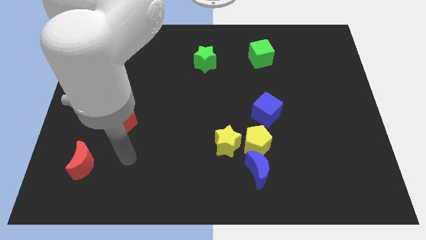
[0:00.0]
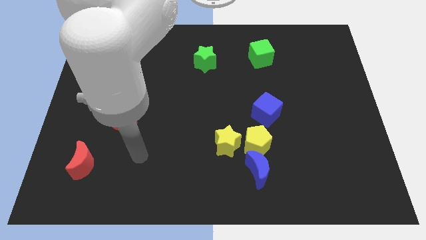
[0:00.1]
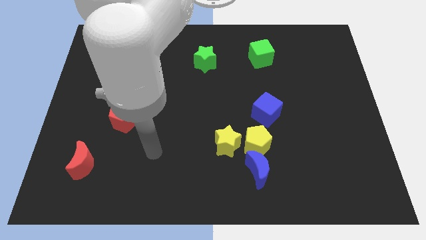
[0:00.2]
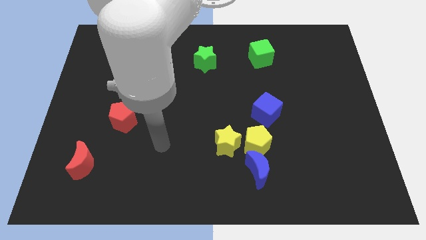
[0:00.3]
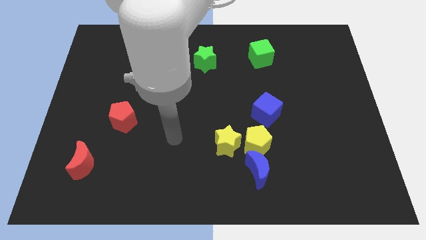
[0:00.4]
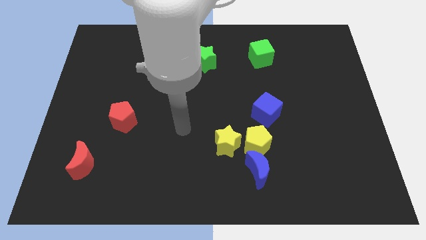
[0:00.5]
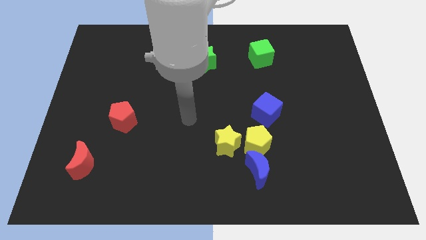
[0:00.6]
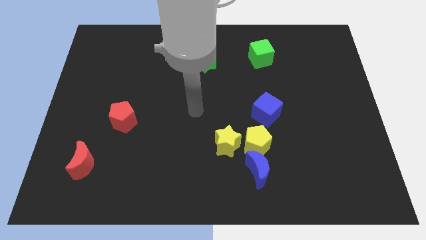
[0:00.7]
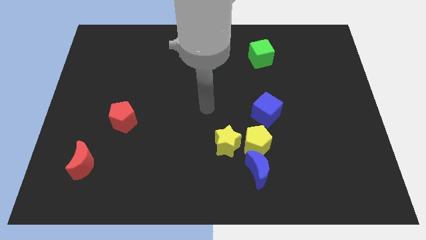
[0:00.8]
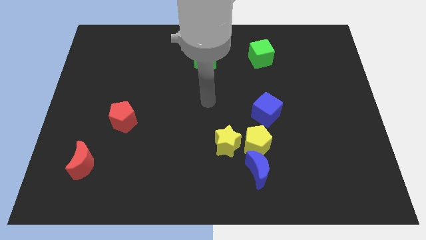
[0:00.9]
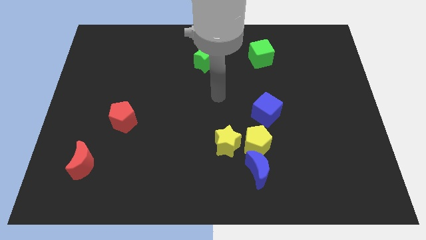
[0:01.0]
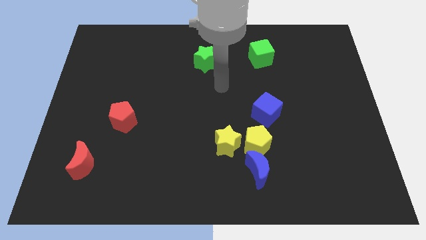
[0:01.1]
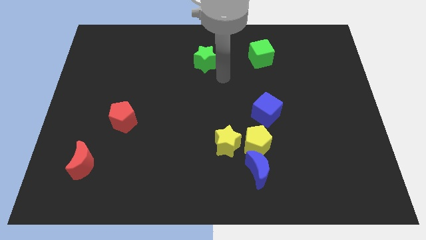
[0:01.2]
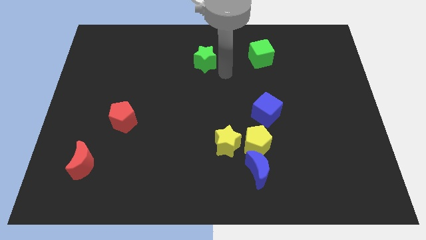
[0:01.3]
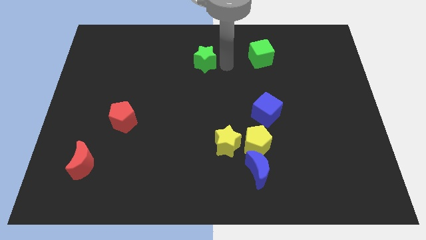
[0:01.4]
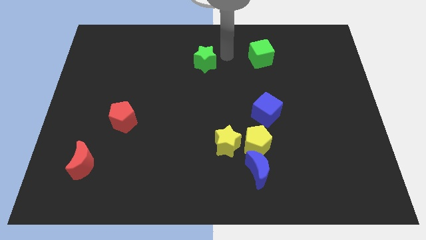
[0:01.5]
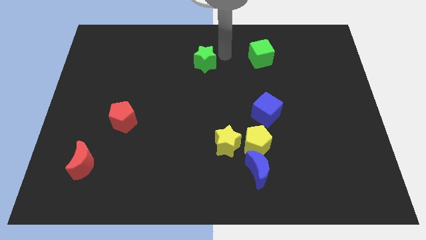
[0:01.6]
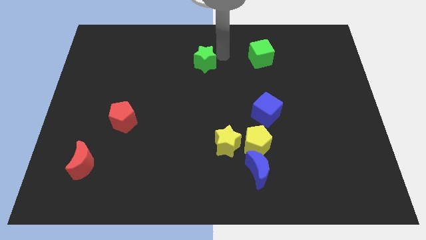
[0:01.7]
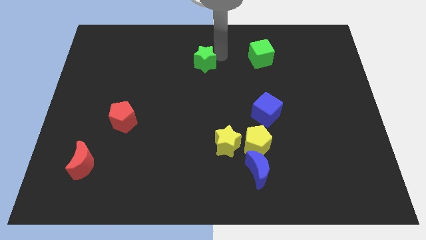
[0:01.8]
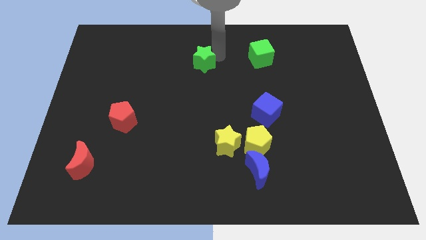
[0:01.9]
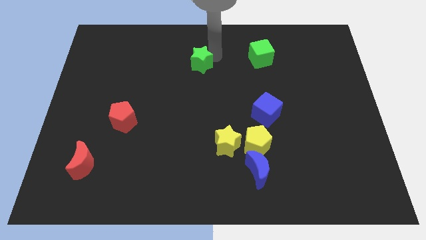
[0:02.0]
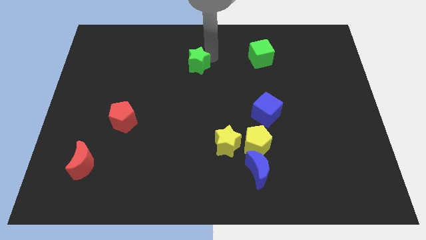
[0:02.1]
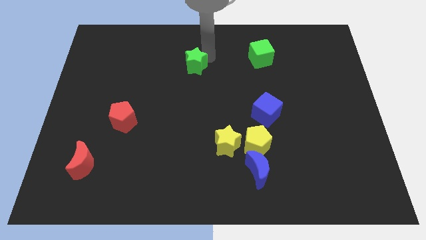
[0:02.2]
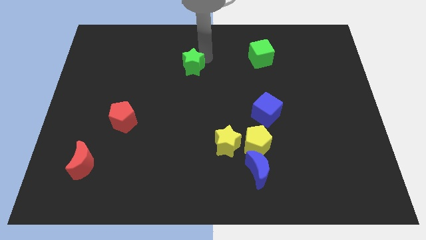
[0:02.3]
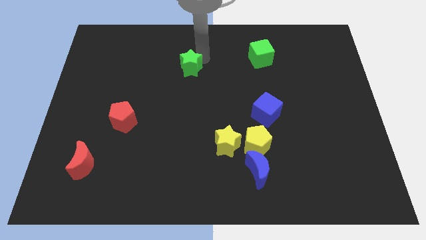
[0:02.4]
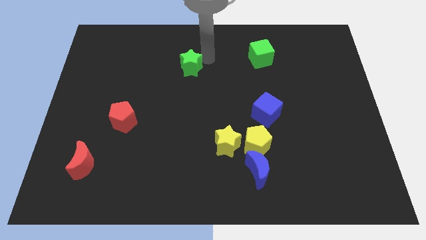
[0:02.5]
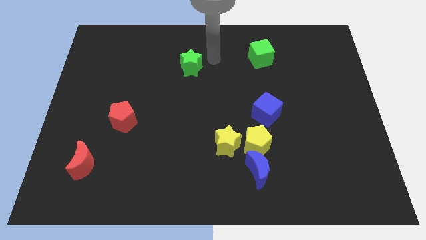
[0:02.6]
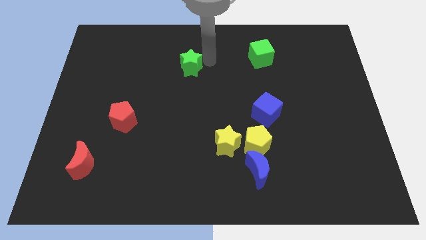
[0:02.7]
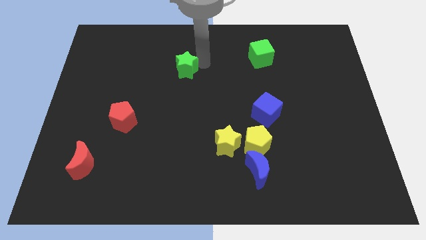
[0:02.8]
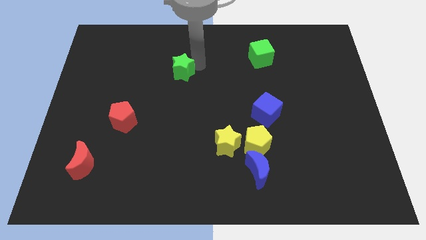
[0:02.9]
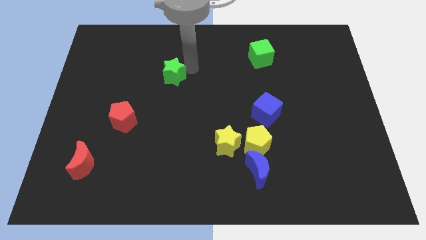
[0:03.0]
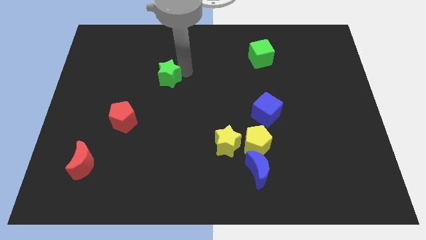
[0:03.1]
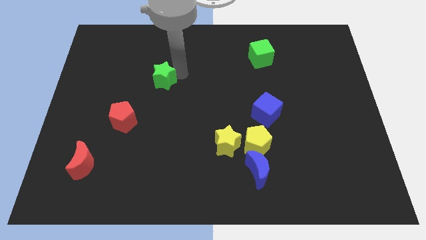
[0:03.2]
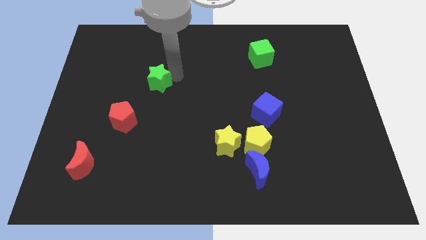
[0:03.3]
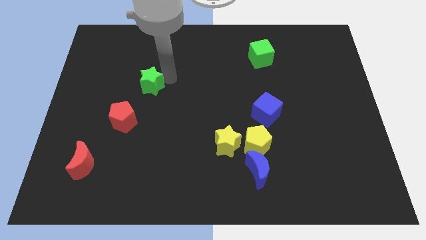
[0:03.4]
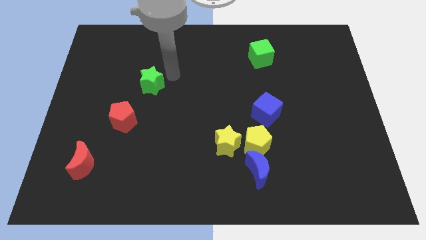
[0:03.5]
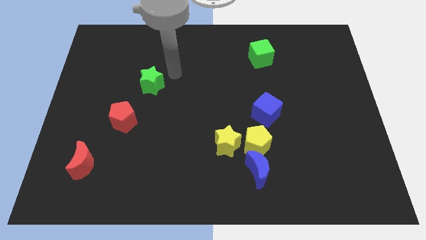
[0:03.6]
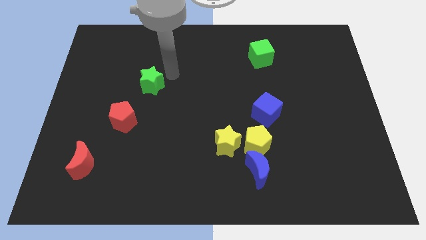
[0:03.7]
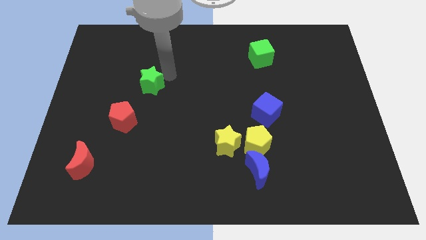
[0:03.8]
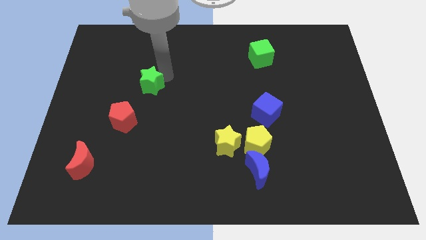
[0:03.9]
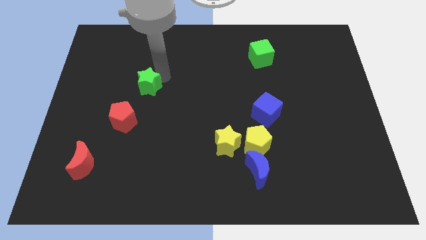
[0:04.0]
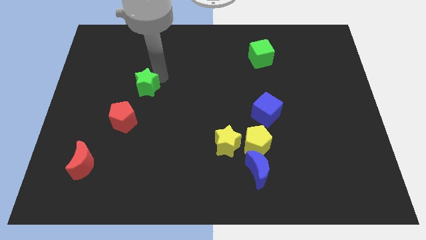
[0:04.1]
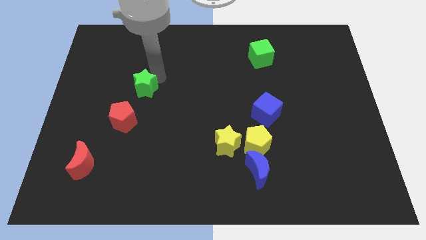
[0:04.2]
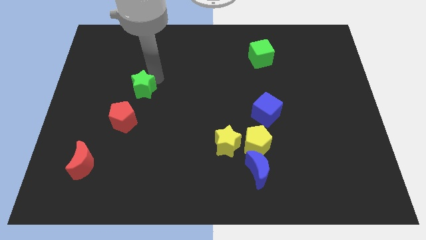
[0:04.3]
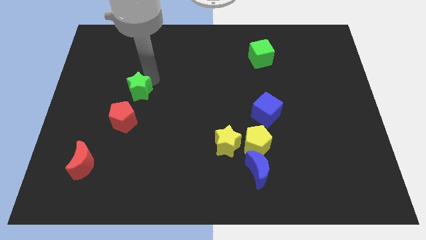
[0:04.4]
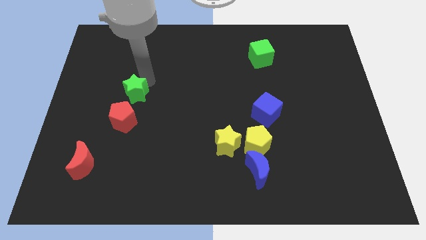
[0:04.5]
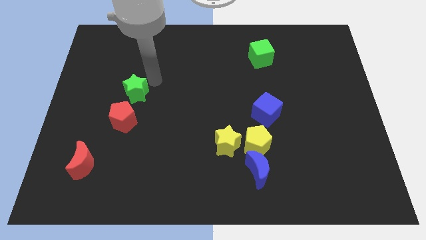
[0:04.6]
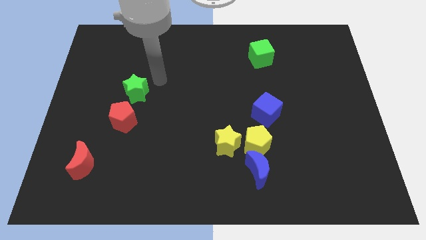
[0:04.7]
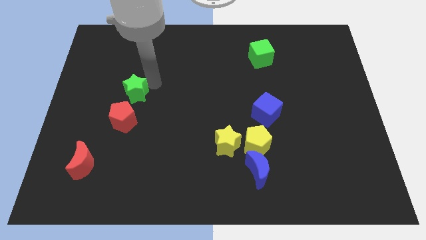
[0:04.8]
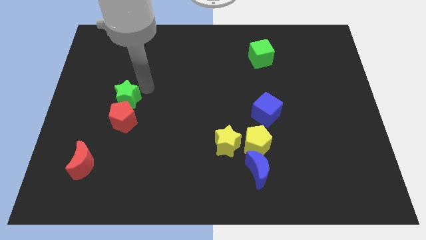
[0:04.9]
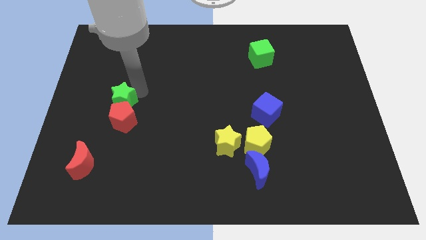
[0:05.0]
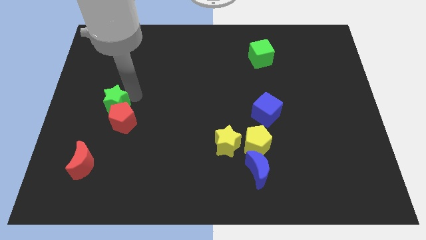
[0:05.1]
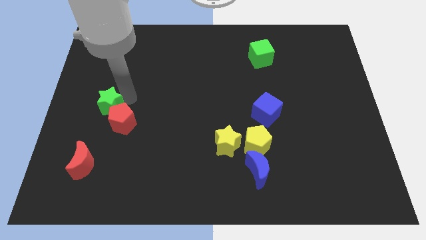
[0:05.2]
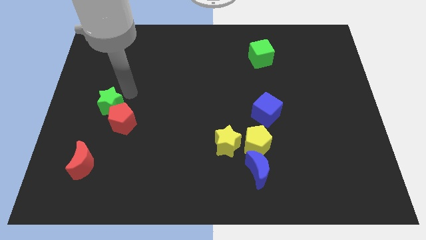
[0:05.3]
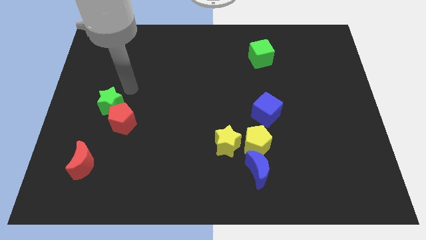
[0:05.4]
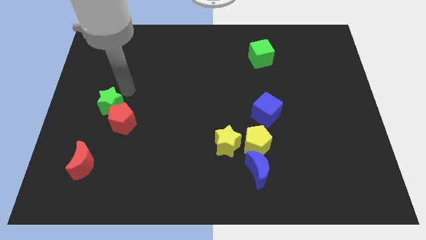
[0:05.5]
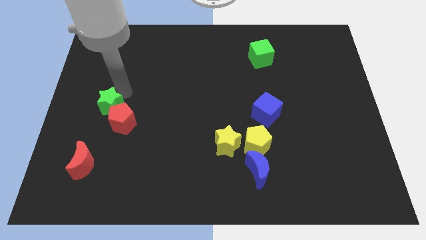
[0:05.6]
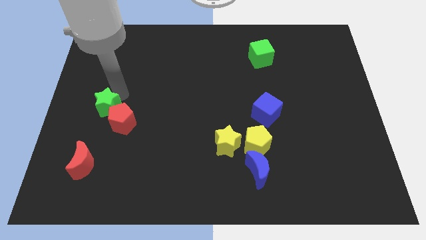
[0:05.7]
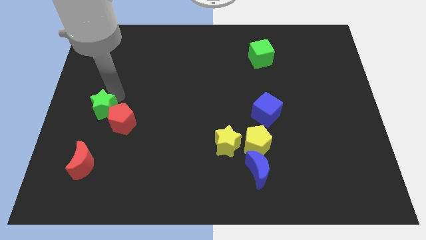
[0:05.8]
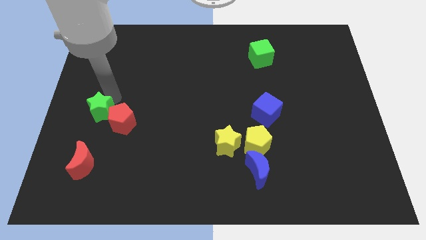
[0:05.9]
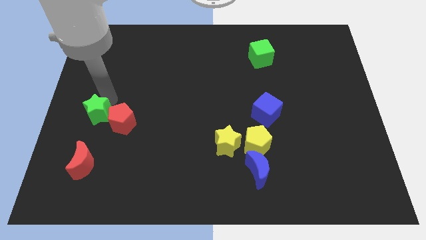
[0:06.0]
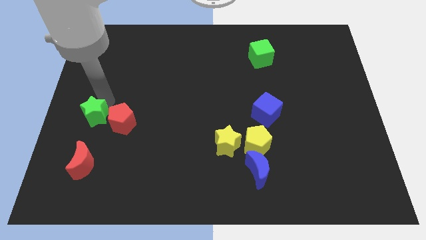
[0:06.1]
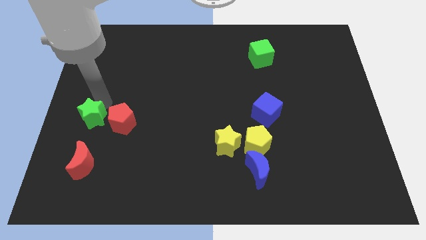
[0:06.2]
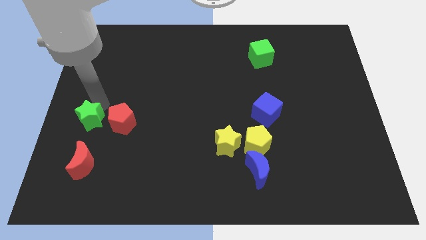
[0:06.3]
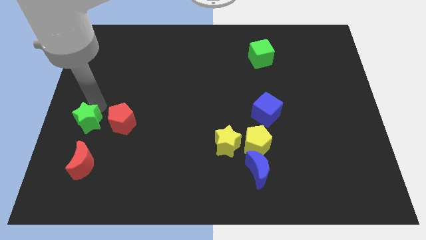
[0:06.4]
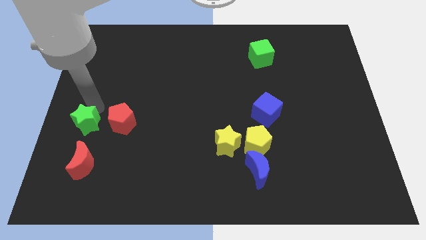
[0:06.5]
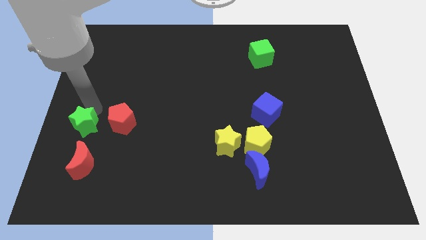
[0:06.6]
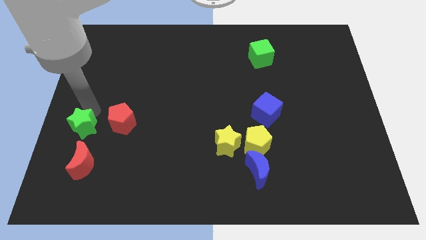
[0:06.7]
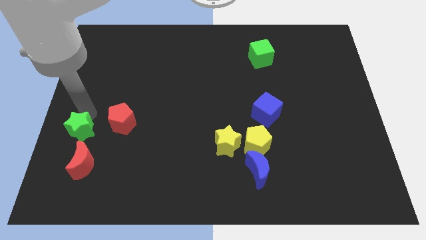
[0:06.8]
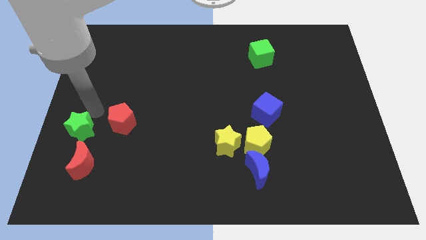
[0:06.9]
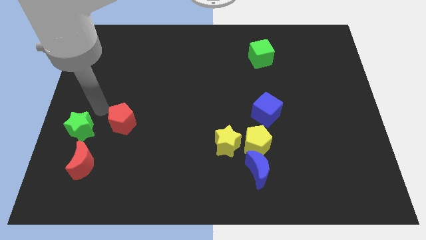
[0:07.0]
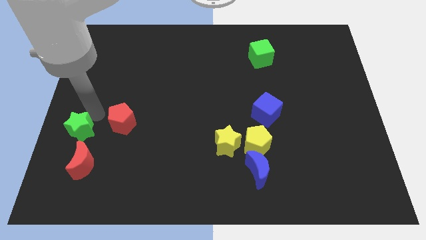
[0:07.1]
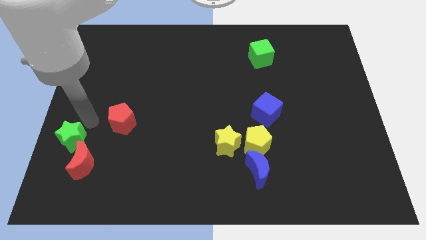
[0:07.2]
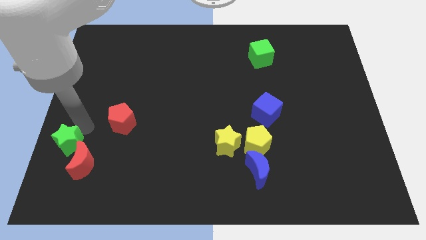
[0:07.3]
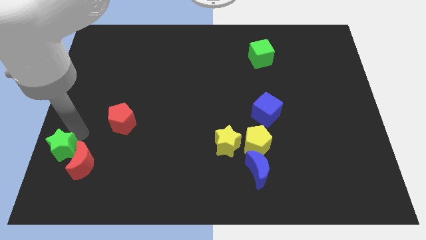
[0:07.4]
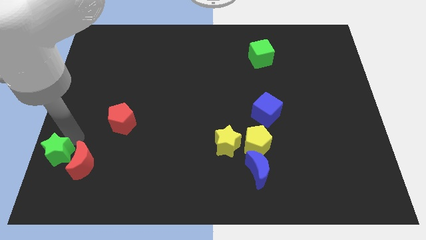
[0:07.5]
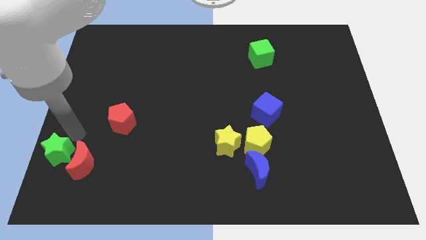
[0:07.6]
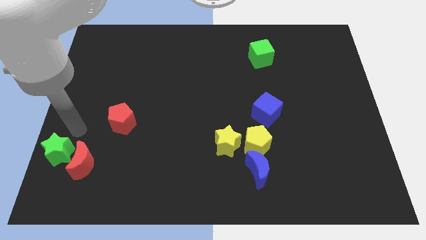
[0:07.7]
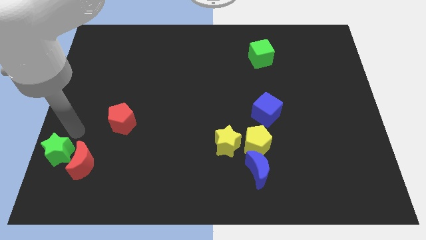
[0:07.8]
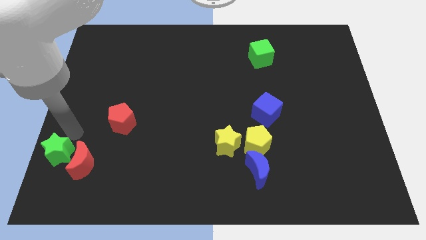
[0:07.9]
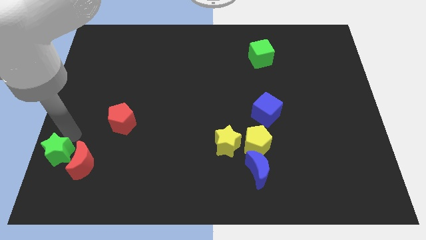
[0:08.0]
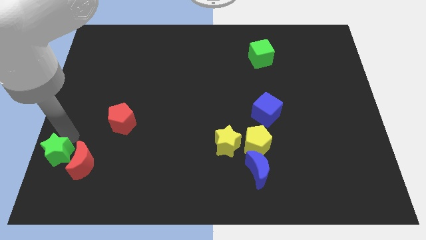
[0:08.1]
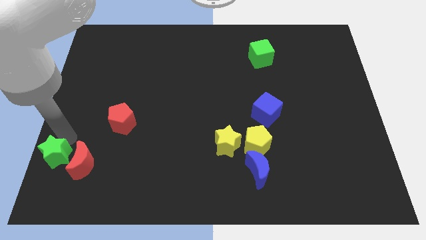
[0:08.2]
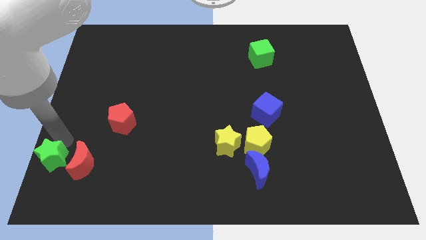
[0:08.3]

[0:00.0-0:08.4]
slide the green star to the bottom left
